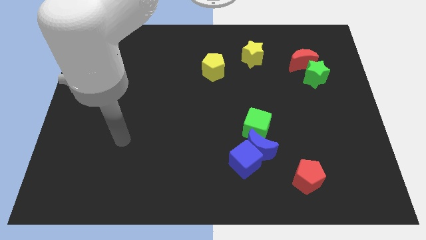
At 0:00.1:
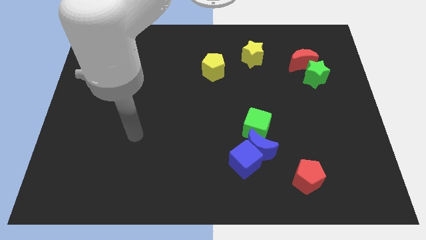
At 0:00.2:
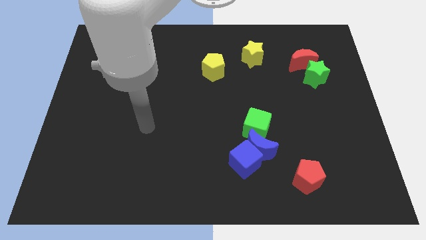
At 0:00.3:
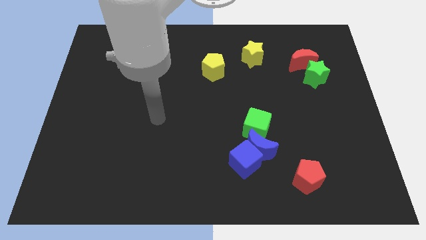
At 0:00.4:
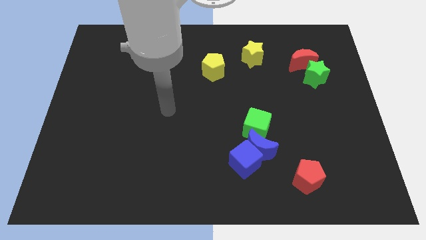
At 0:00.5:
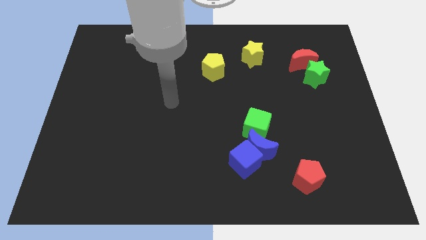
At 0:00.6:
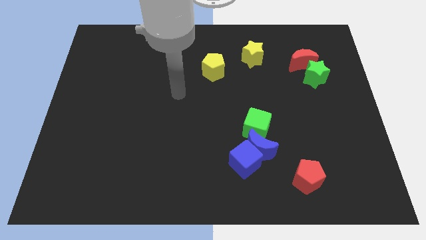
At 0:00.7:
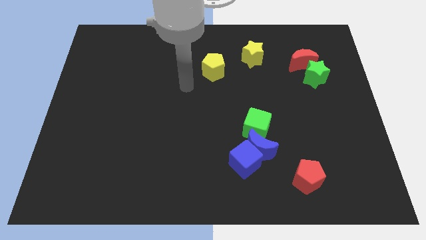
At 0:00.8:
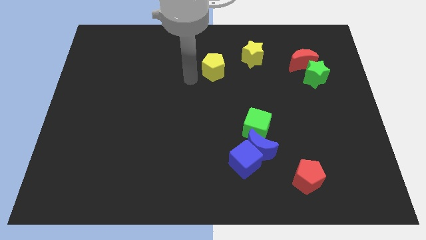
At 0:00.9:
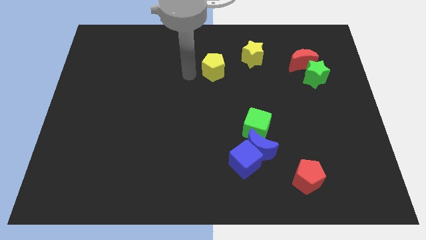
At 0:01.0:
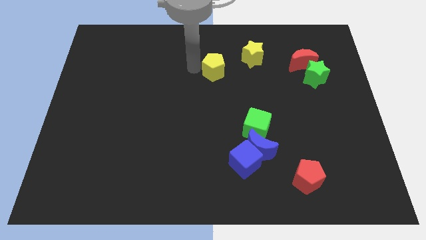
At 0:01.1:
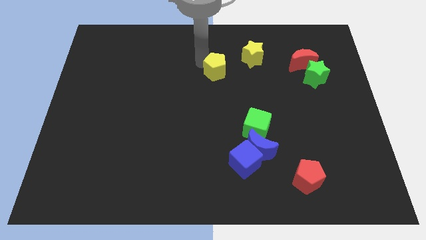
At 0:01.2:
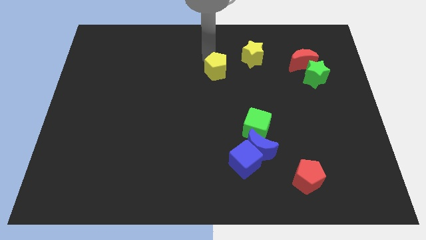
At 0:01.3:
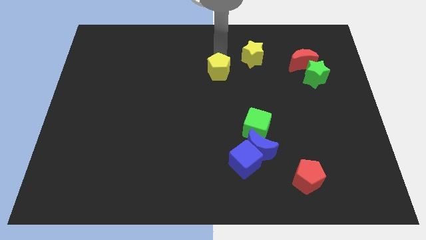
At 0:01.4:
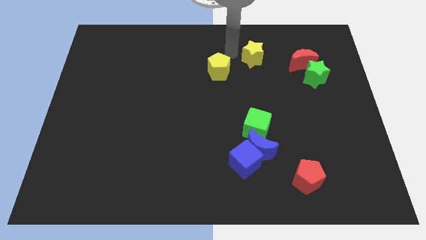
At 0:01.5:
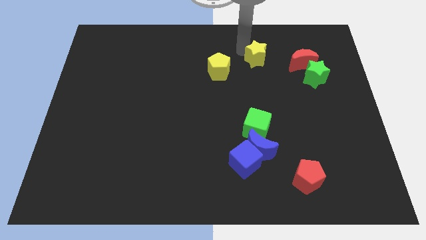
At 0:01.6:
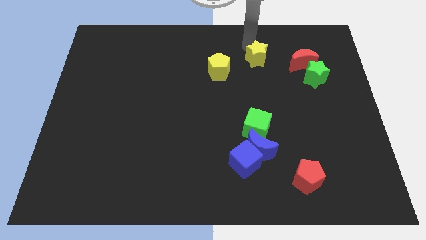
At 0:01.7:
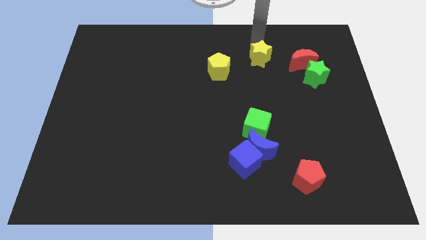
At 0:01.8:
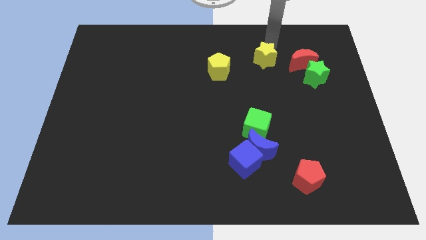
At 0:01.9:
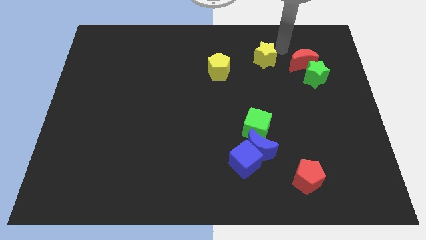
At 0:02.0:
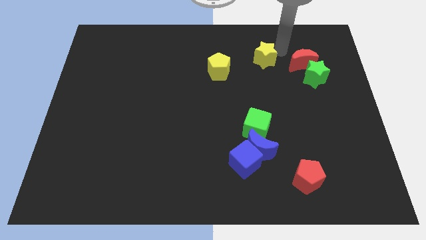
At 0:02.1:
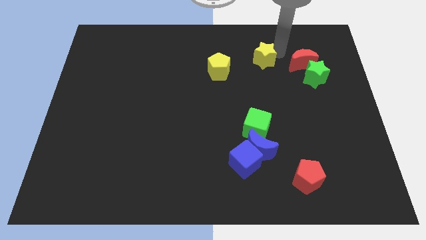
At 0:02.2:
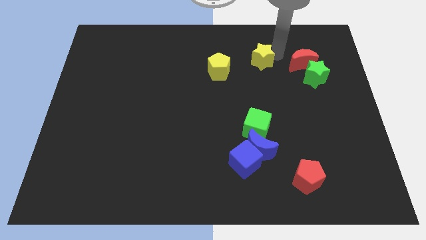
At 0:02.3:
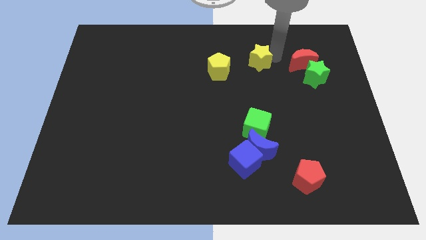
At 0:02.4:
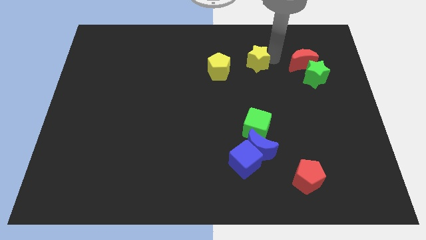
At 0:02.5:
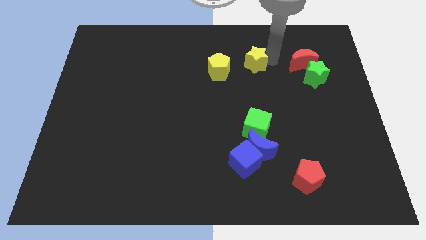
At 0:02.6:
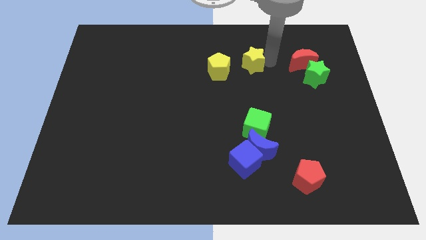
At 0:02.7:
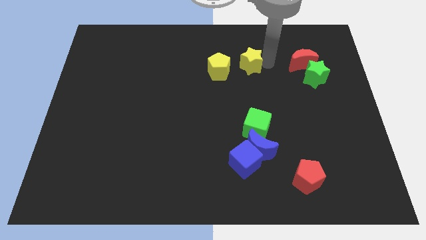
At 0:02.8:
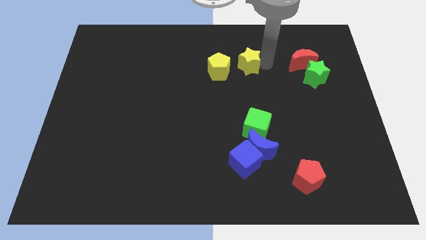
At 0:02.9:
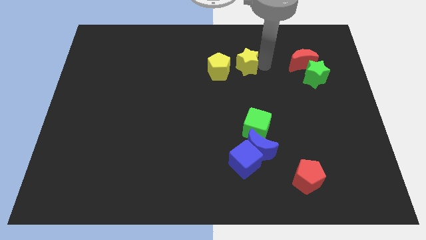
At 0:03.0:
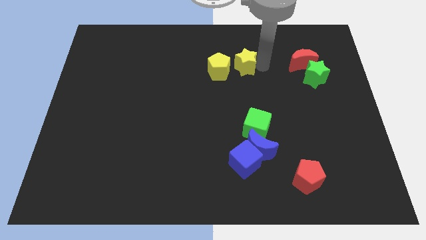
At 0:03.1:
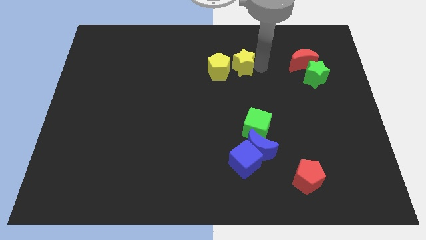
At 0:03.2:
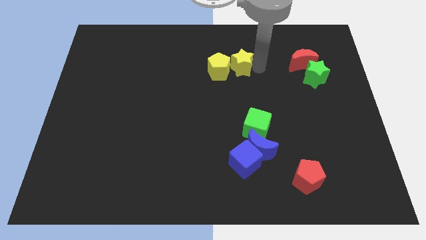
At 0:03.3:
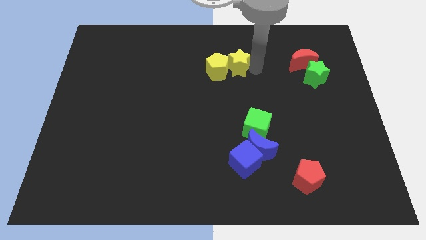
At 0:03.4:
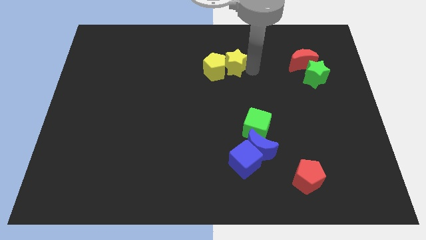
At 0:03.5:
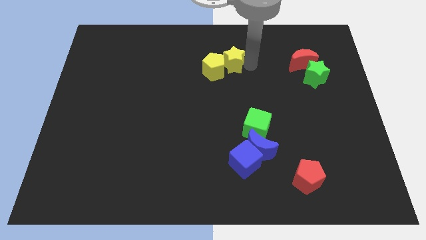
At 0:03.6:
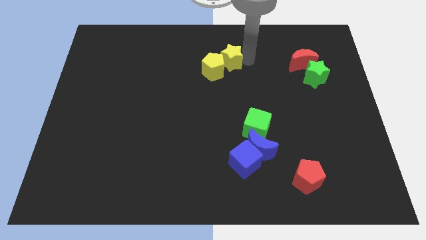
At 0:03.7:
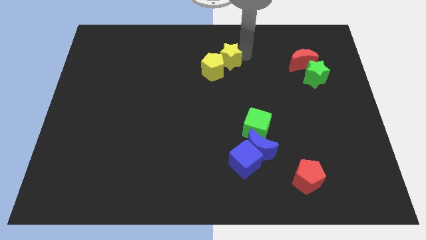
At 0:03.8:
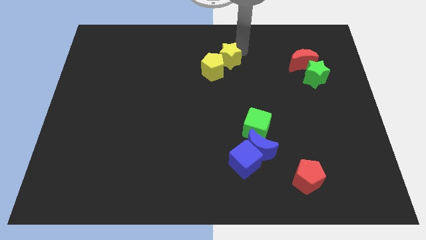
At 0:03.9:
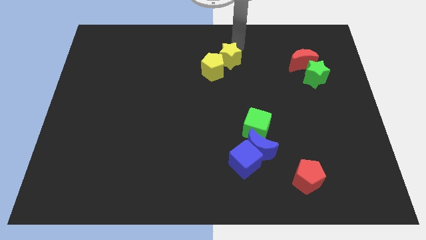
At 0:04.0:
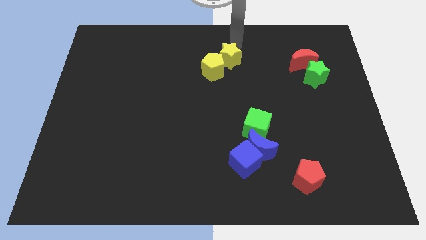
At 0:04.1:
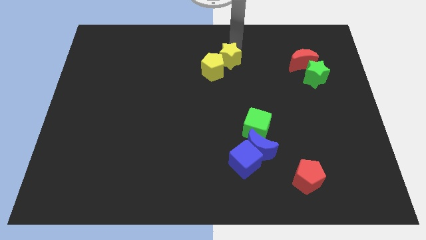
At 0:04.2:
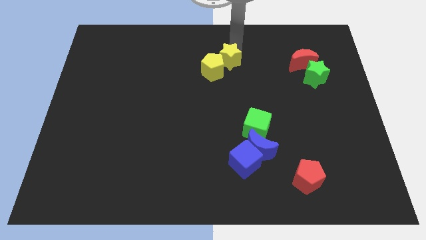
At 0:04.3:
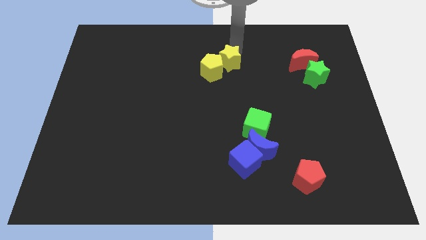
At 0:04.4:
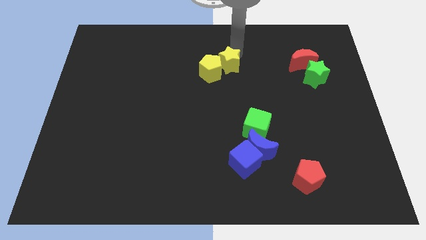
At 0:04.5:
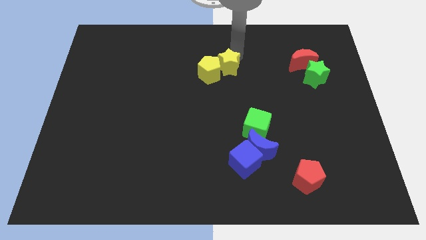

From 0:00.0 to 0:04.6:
push the yellow star downwards and then to the left somewhat

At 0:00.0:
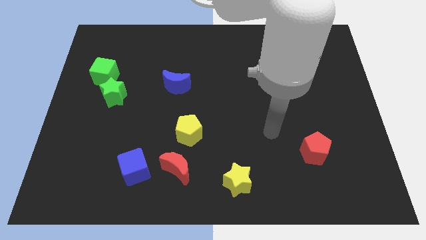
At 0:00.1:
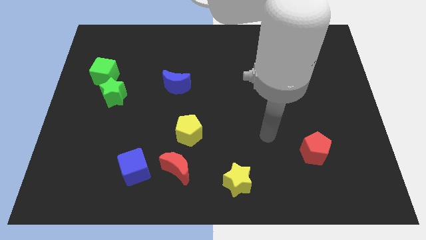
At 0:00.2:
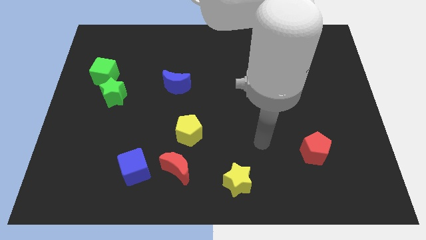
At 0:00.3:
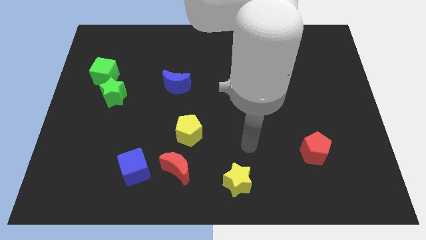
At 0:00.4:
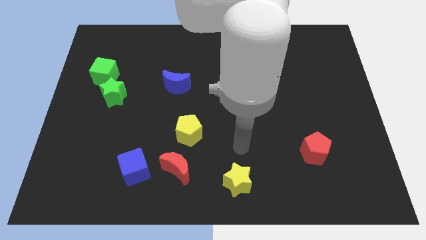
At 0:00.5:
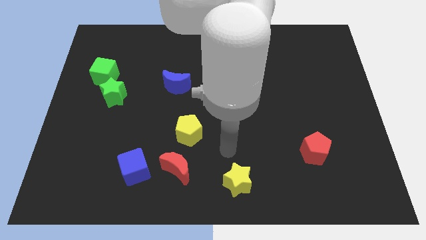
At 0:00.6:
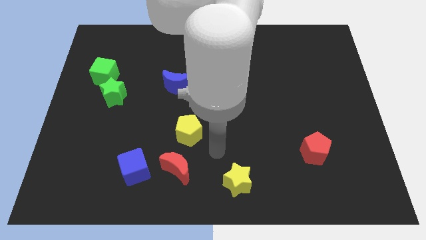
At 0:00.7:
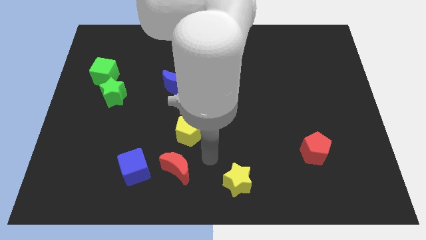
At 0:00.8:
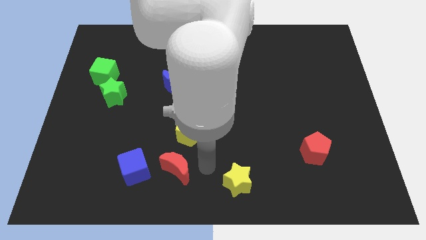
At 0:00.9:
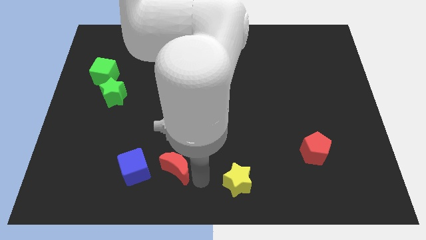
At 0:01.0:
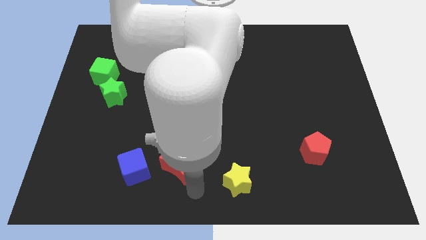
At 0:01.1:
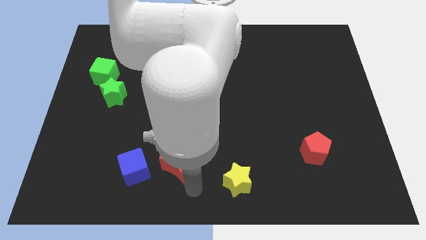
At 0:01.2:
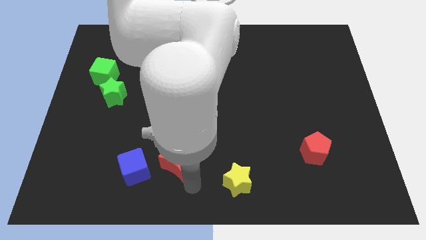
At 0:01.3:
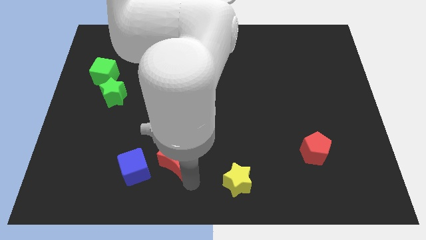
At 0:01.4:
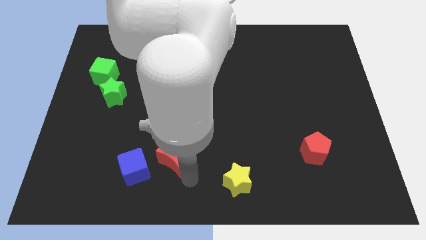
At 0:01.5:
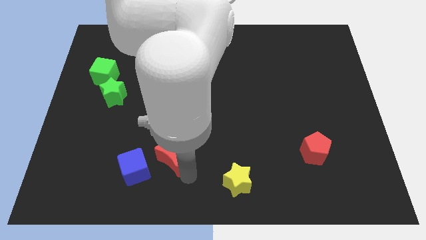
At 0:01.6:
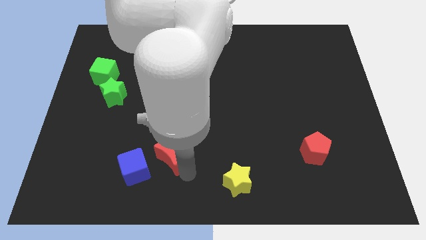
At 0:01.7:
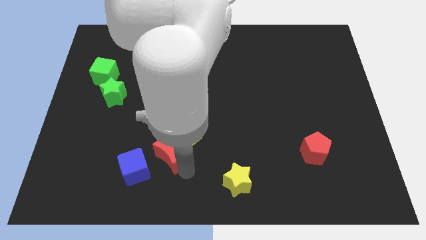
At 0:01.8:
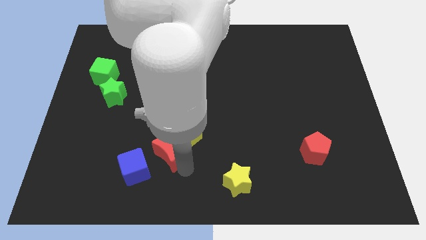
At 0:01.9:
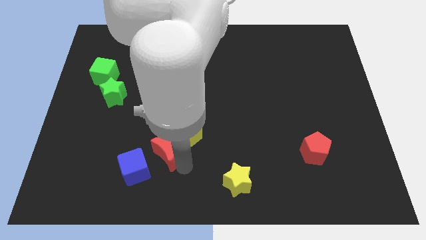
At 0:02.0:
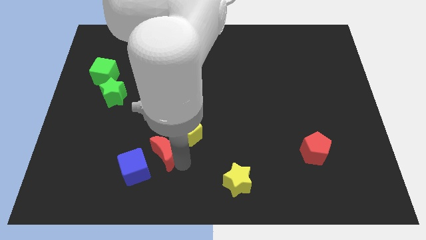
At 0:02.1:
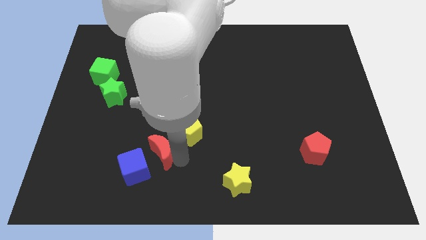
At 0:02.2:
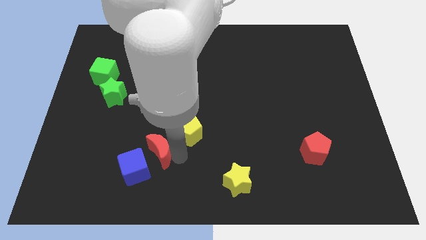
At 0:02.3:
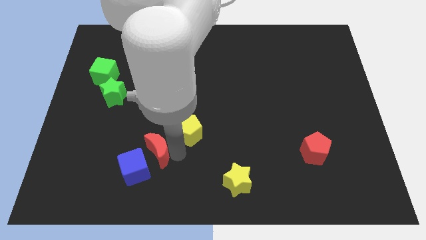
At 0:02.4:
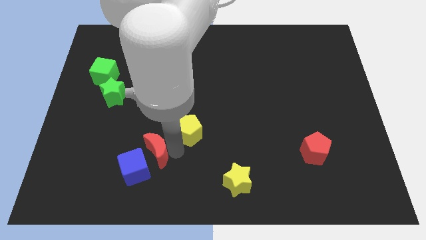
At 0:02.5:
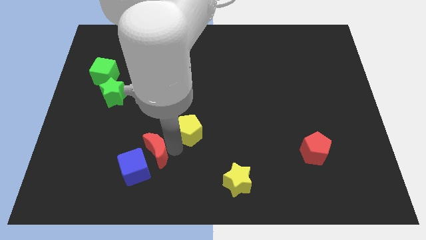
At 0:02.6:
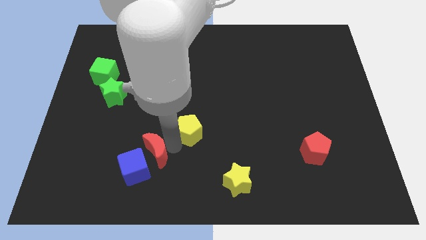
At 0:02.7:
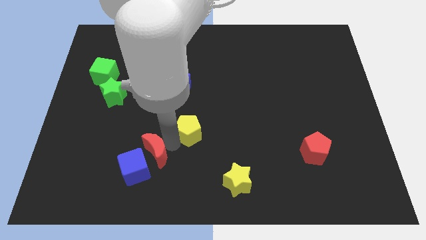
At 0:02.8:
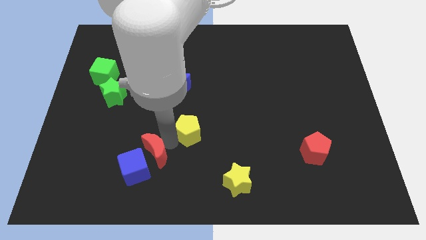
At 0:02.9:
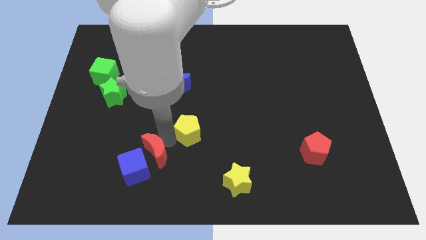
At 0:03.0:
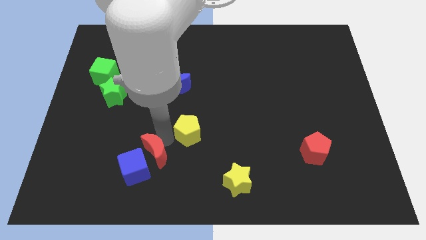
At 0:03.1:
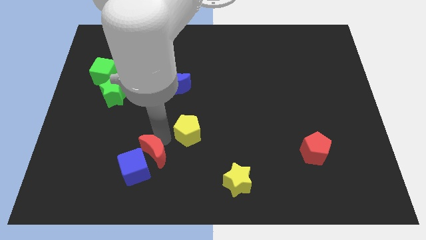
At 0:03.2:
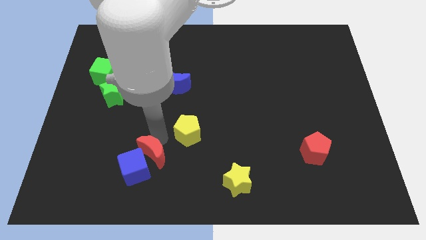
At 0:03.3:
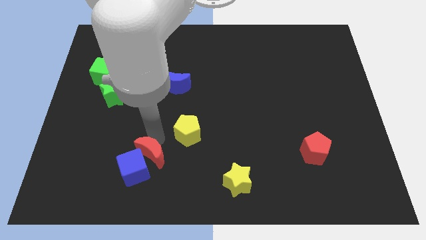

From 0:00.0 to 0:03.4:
push the red moon up and to the left somewhat

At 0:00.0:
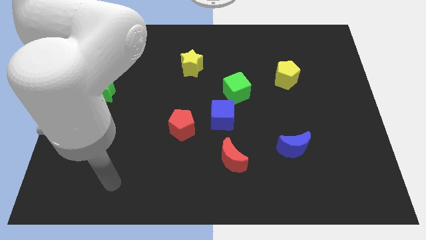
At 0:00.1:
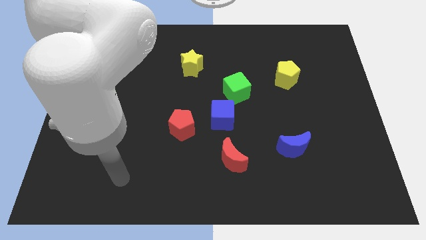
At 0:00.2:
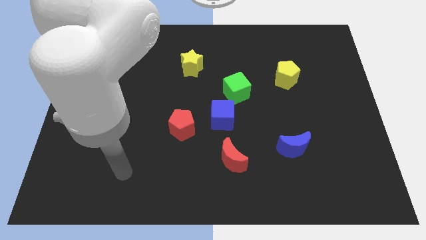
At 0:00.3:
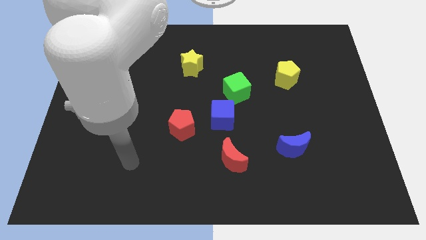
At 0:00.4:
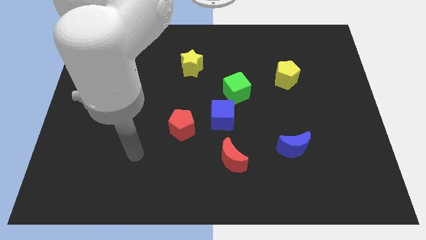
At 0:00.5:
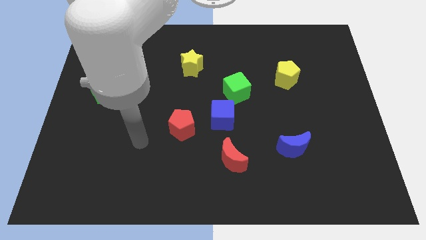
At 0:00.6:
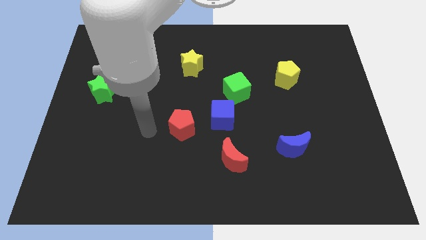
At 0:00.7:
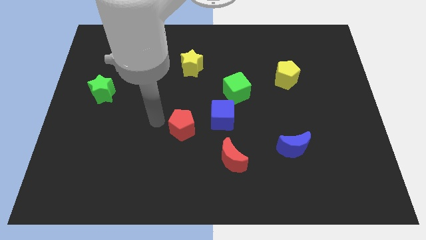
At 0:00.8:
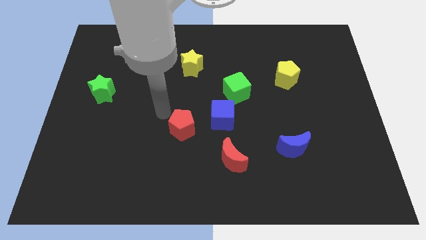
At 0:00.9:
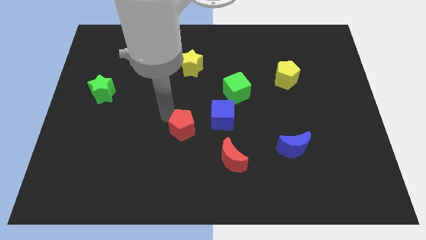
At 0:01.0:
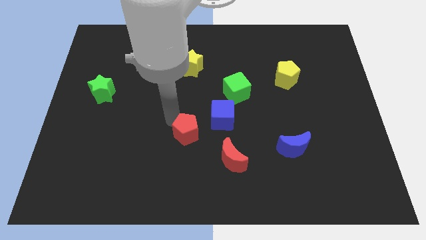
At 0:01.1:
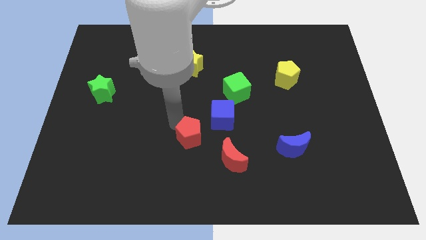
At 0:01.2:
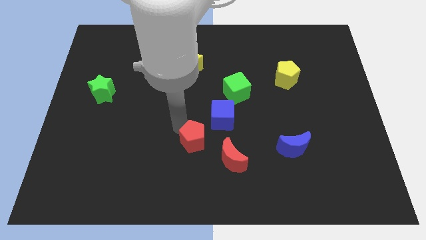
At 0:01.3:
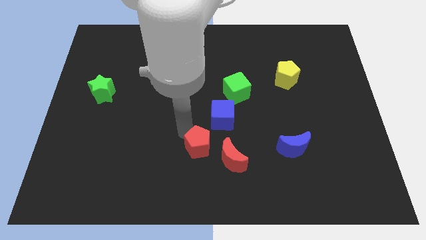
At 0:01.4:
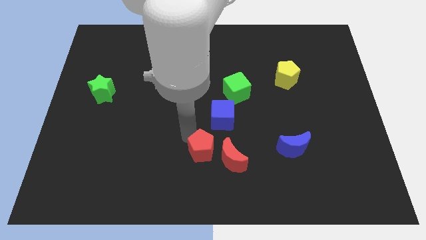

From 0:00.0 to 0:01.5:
slightly move the red pentagon downwards and right
